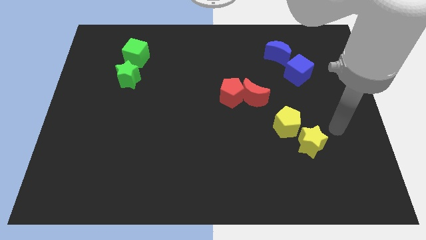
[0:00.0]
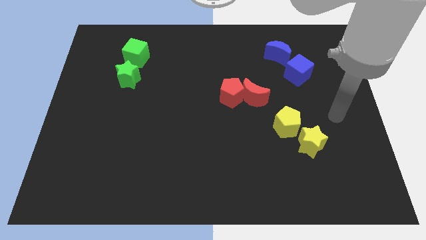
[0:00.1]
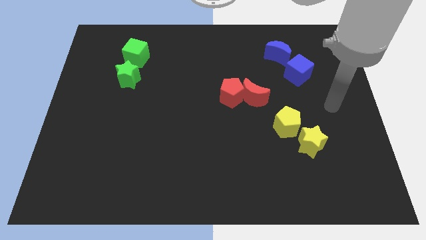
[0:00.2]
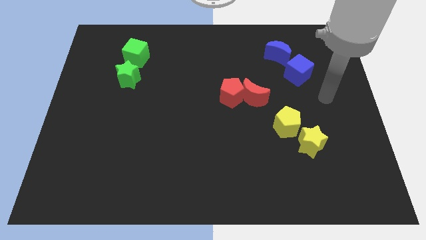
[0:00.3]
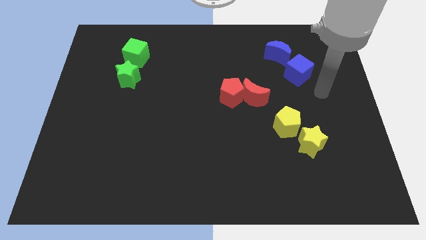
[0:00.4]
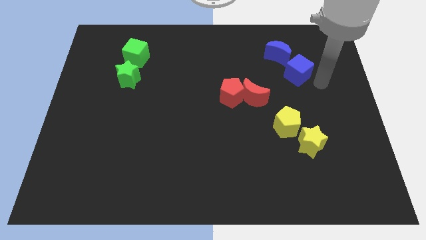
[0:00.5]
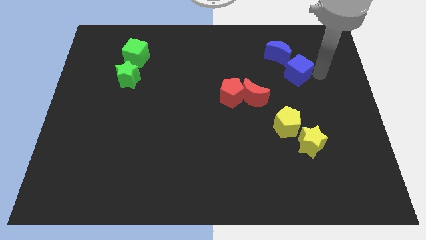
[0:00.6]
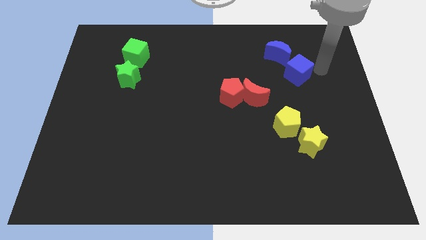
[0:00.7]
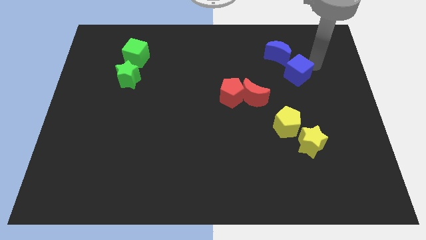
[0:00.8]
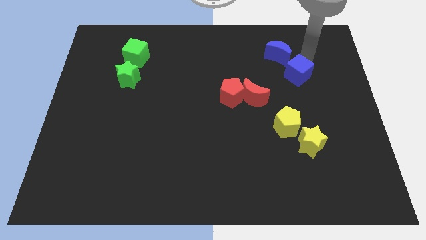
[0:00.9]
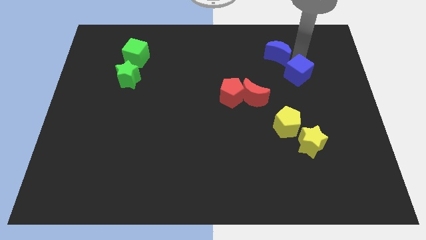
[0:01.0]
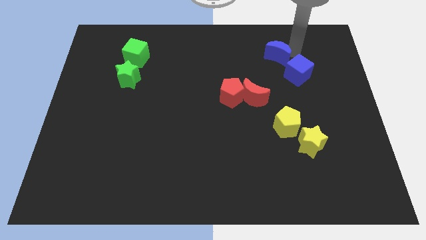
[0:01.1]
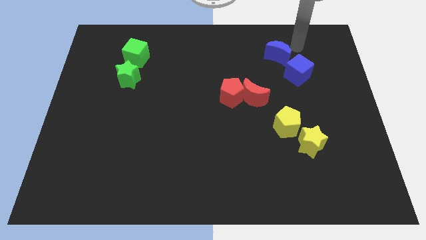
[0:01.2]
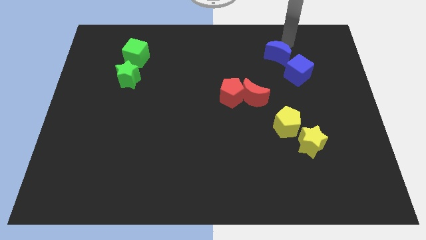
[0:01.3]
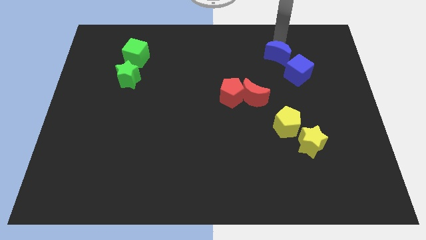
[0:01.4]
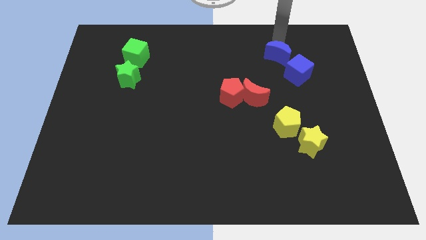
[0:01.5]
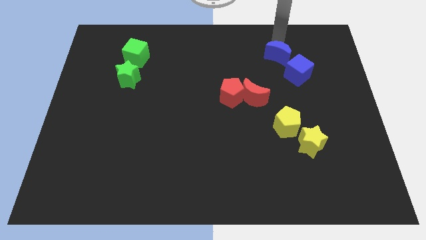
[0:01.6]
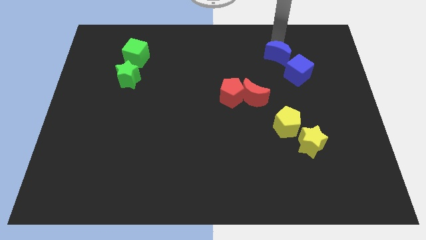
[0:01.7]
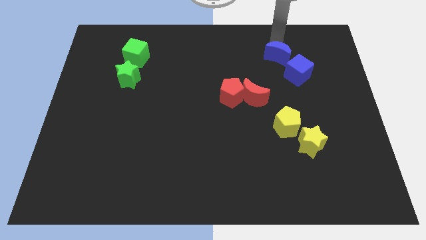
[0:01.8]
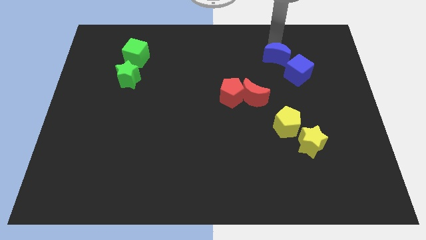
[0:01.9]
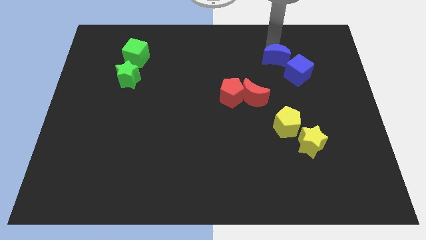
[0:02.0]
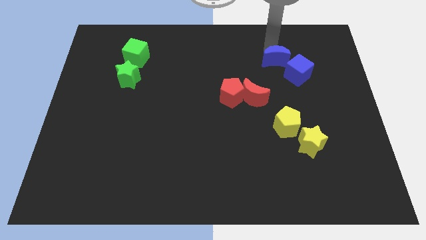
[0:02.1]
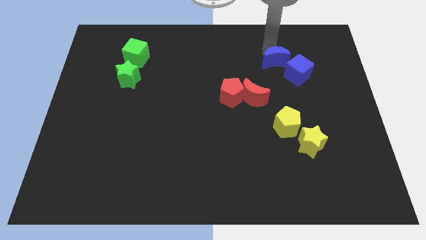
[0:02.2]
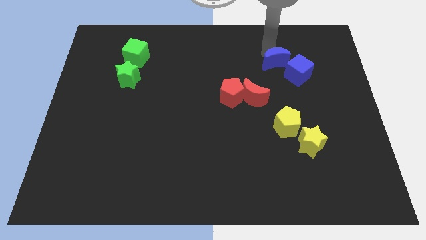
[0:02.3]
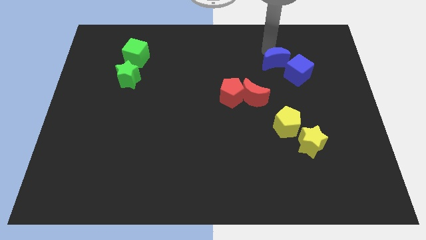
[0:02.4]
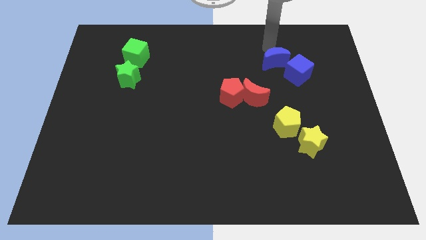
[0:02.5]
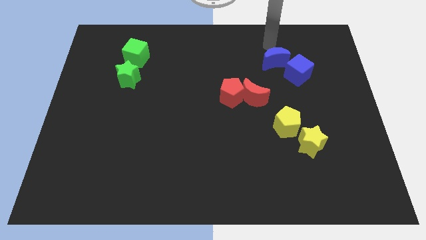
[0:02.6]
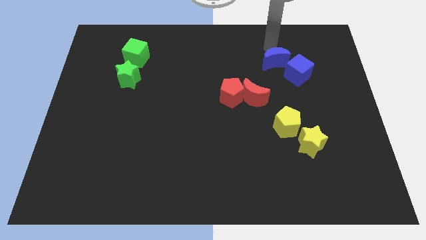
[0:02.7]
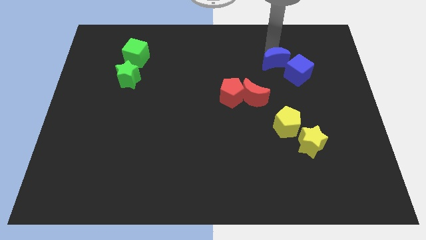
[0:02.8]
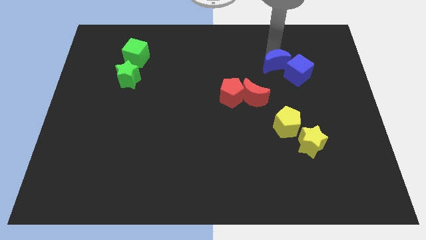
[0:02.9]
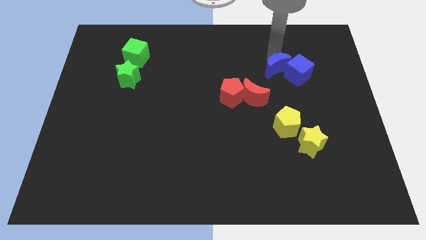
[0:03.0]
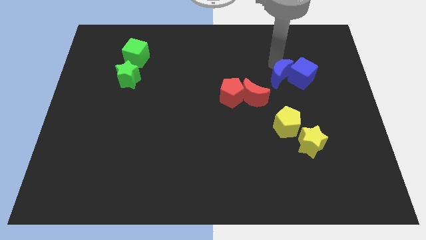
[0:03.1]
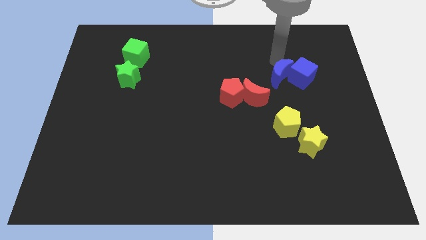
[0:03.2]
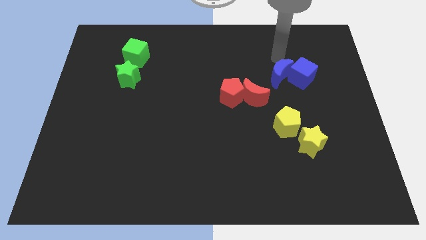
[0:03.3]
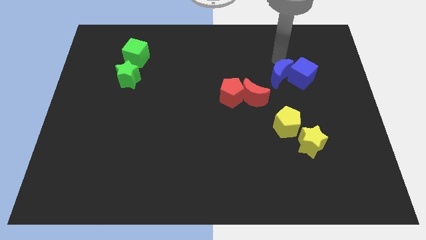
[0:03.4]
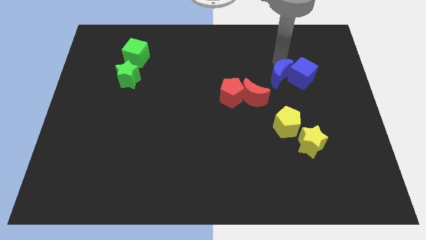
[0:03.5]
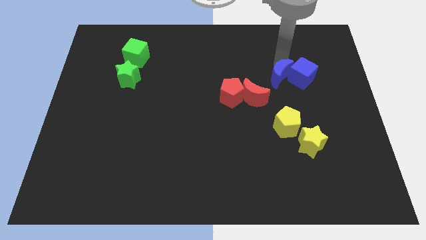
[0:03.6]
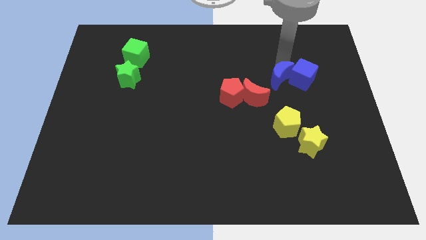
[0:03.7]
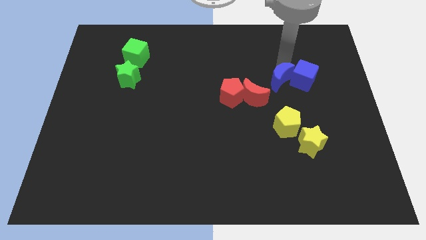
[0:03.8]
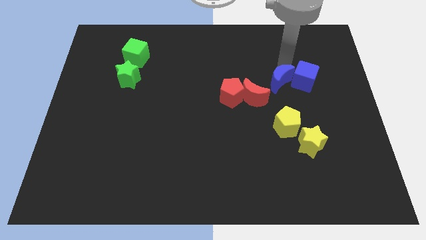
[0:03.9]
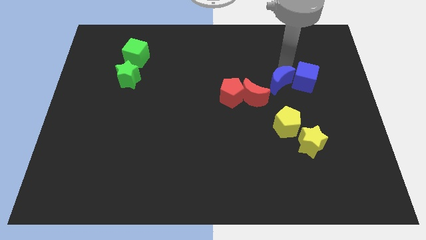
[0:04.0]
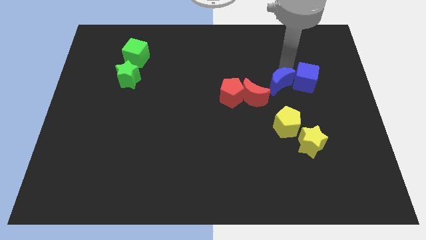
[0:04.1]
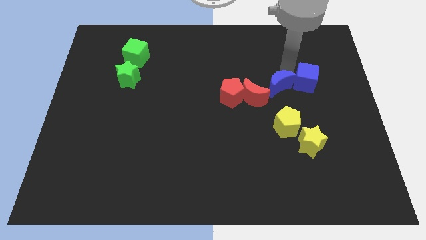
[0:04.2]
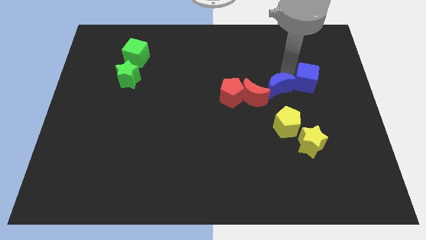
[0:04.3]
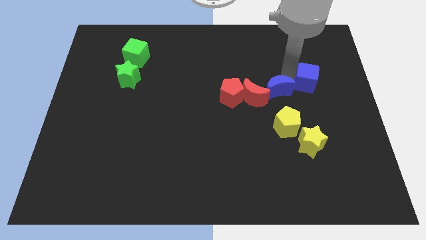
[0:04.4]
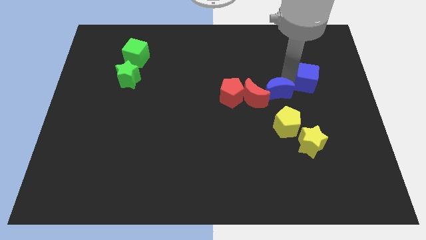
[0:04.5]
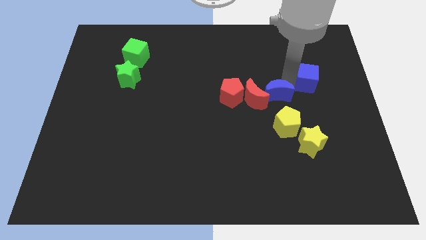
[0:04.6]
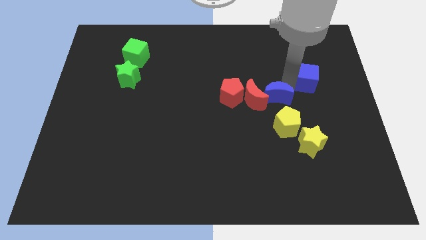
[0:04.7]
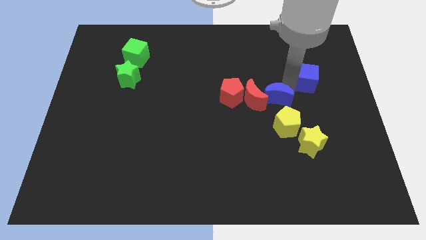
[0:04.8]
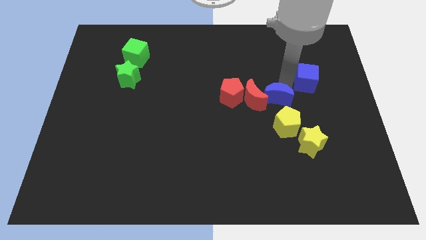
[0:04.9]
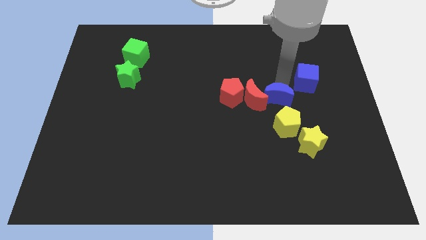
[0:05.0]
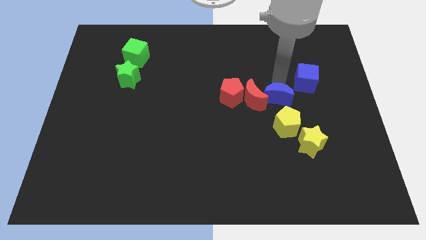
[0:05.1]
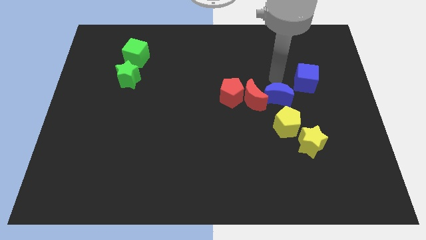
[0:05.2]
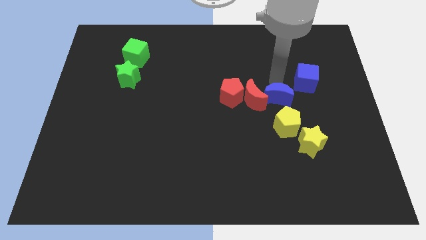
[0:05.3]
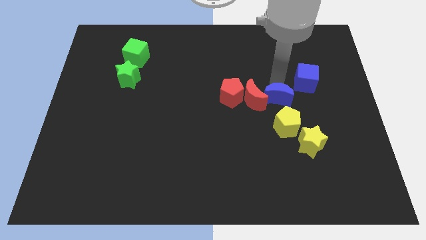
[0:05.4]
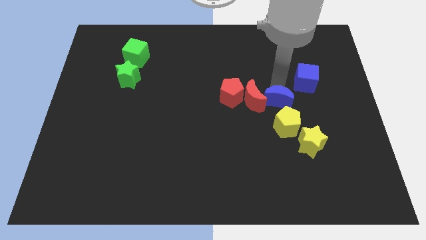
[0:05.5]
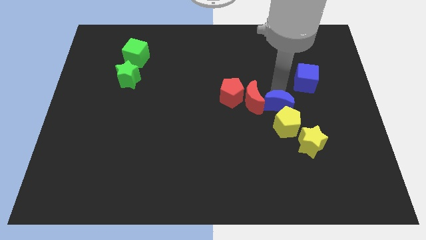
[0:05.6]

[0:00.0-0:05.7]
put the blue moon next to the yellow pentagon

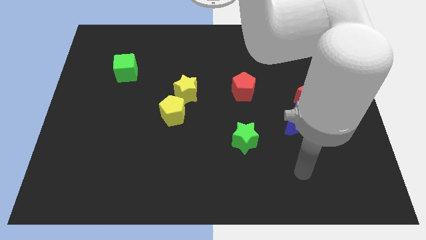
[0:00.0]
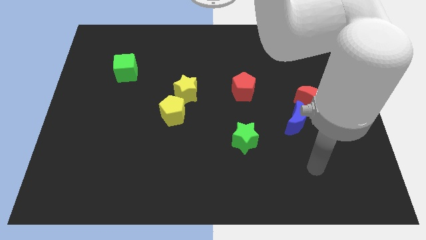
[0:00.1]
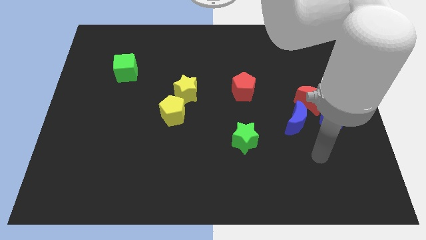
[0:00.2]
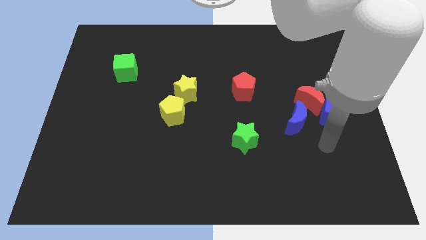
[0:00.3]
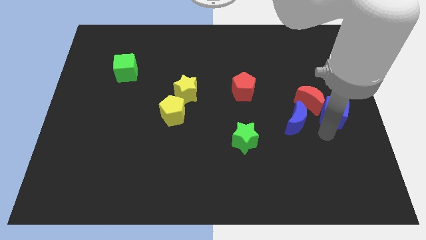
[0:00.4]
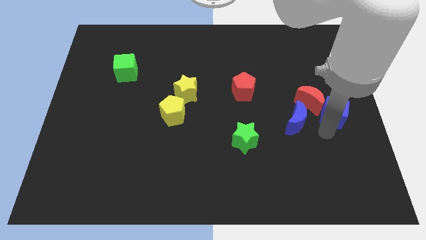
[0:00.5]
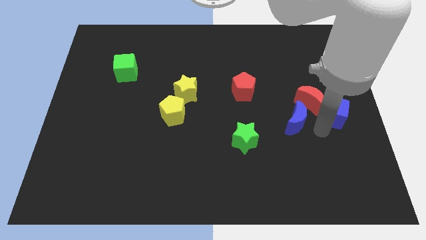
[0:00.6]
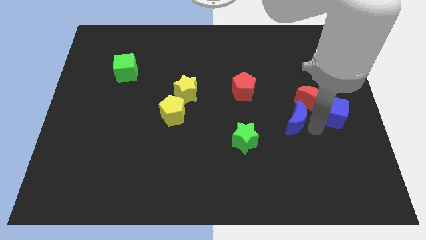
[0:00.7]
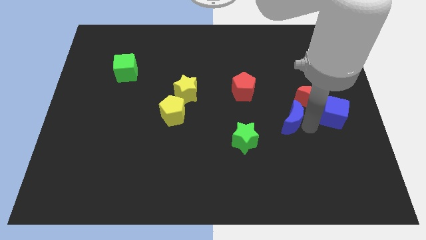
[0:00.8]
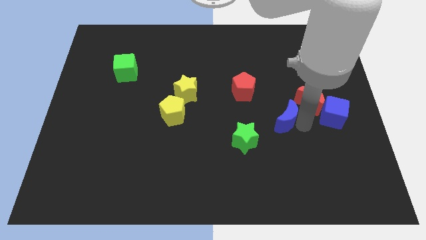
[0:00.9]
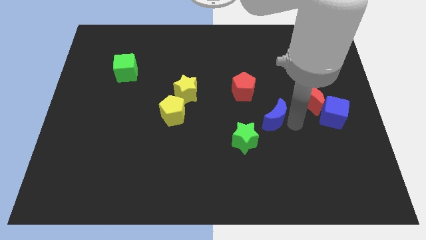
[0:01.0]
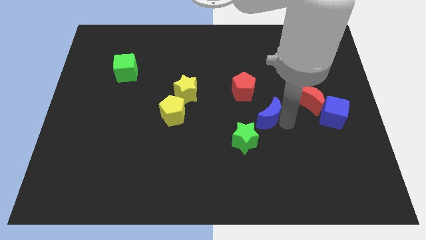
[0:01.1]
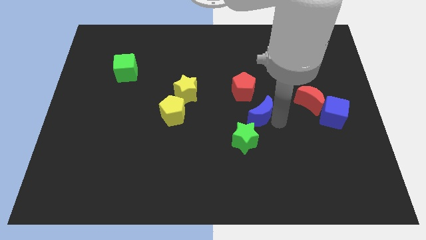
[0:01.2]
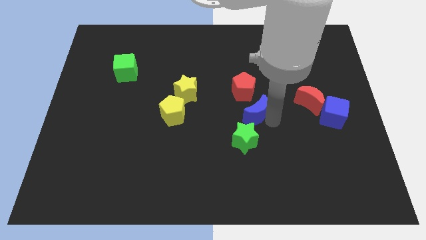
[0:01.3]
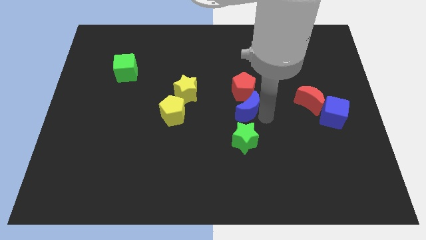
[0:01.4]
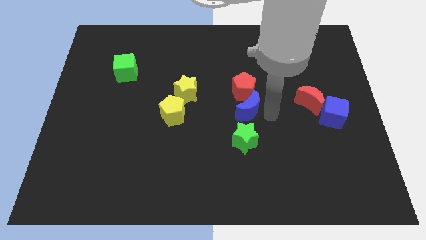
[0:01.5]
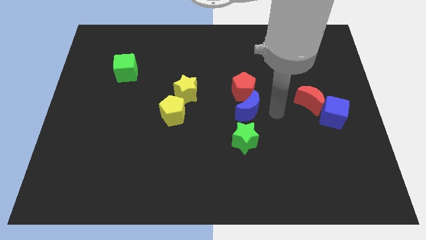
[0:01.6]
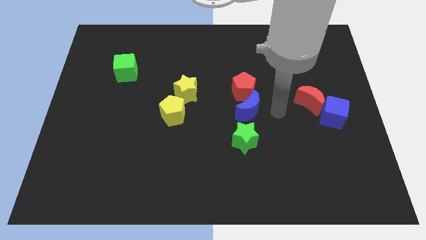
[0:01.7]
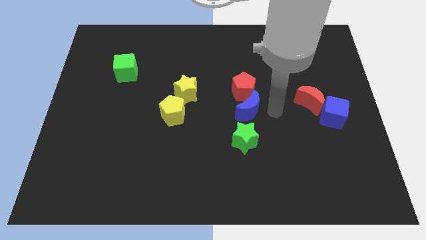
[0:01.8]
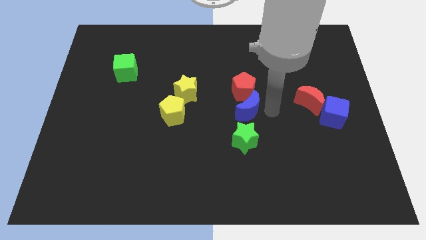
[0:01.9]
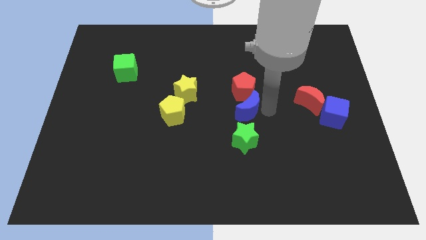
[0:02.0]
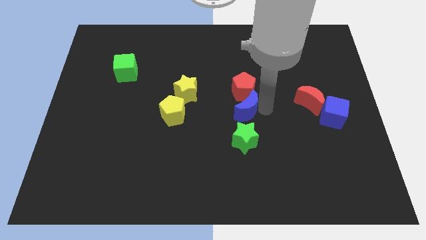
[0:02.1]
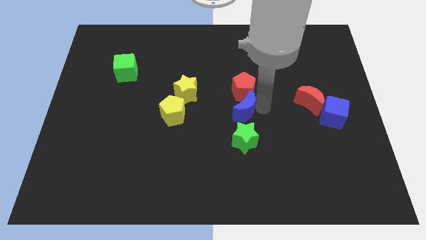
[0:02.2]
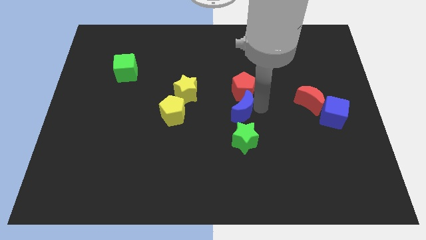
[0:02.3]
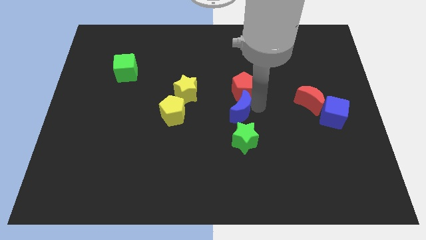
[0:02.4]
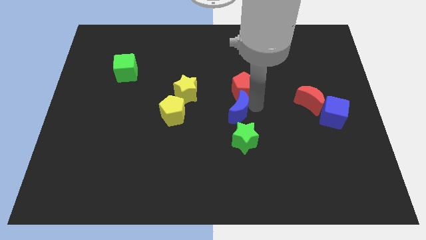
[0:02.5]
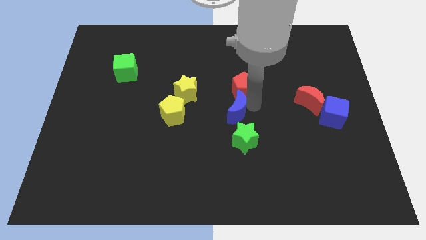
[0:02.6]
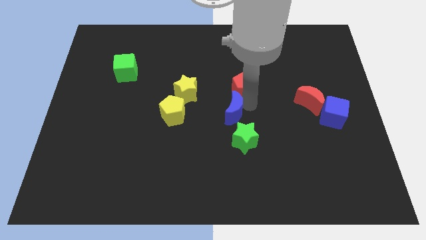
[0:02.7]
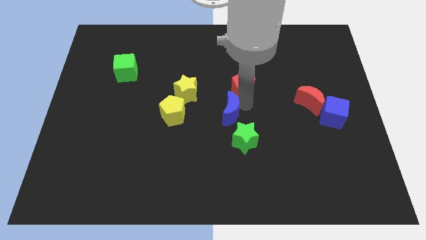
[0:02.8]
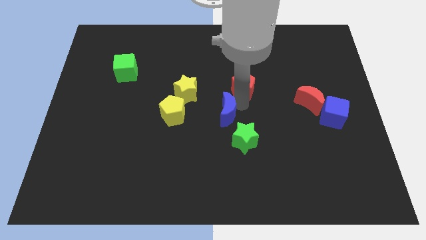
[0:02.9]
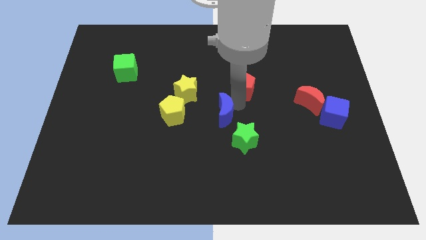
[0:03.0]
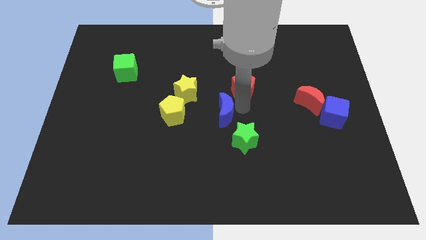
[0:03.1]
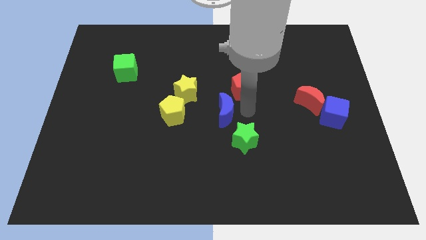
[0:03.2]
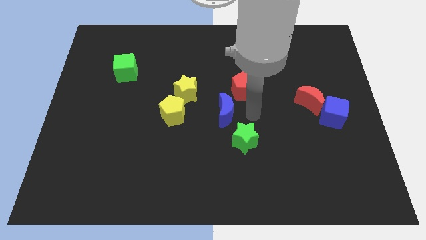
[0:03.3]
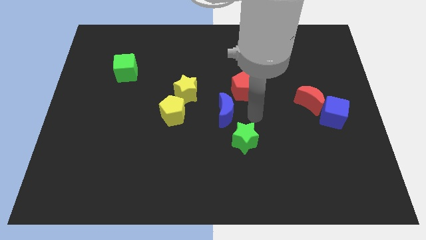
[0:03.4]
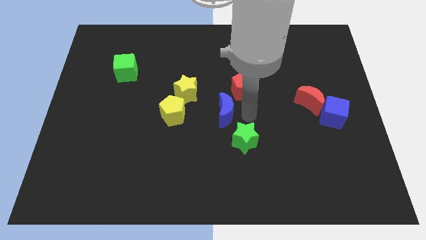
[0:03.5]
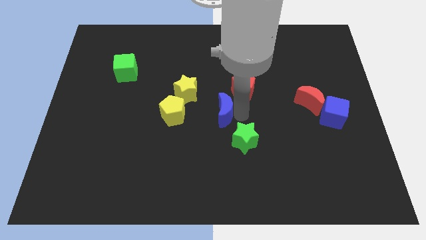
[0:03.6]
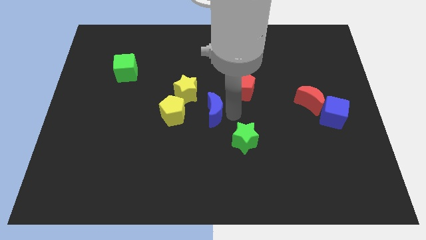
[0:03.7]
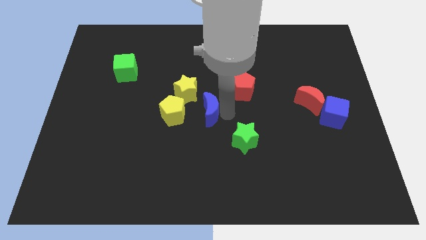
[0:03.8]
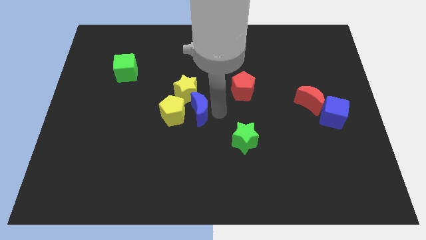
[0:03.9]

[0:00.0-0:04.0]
move the blue moon close to the yellow pentagon
